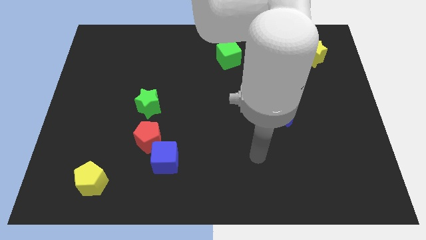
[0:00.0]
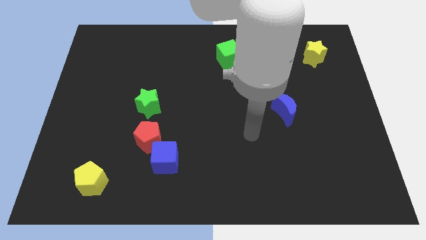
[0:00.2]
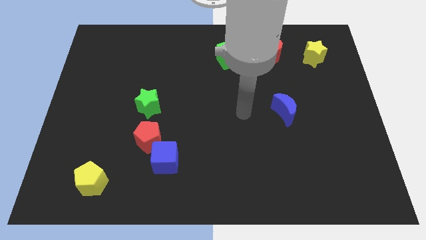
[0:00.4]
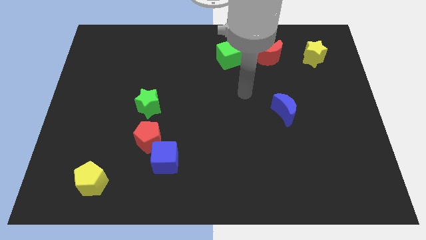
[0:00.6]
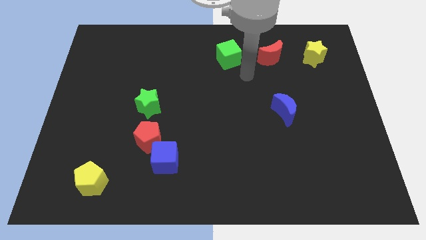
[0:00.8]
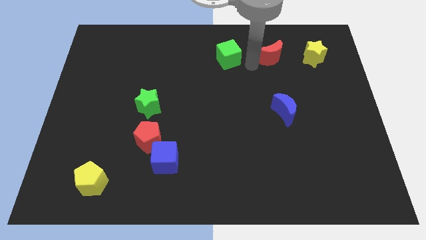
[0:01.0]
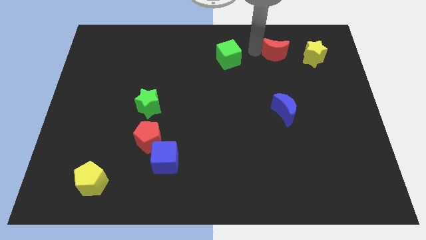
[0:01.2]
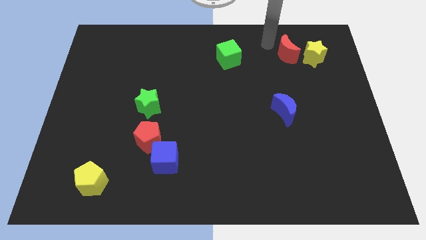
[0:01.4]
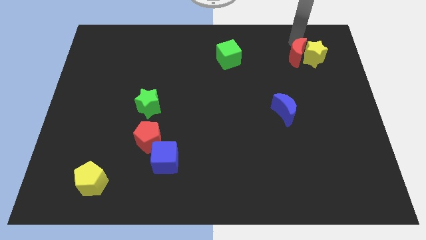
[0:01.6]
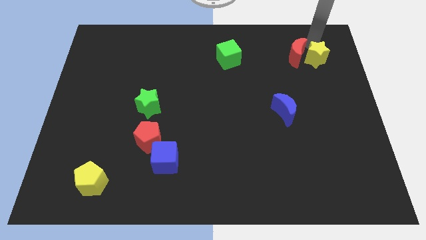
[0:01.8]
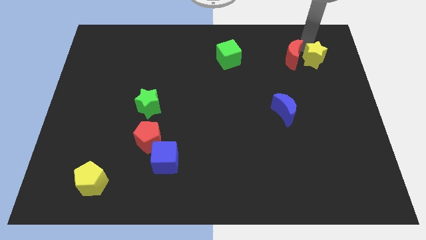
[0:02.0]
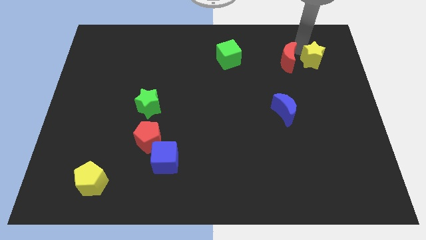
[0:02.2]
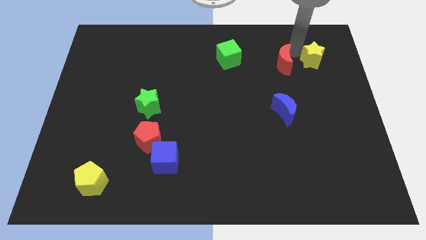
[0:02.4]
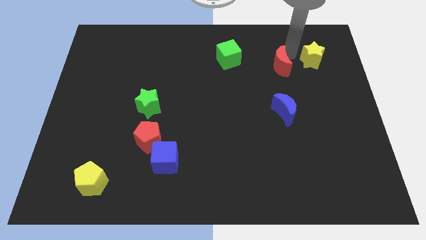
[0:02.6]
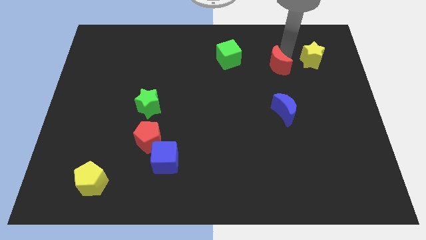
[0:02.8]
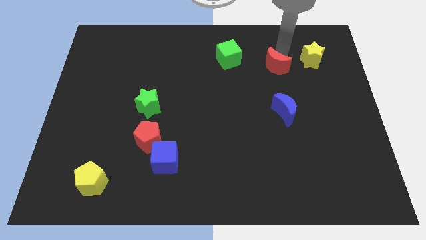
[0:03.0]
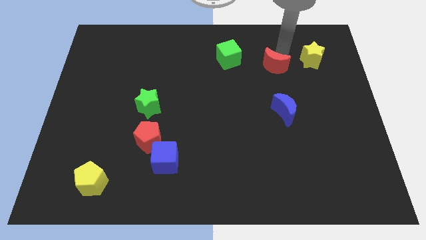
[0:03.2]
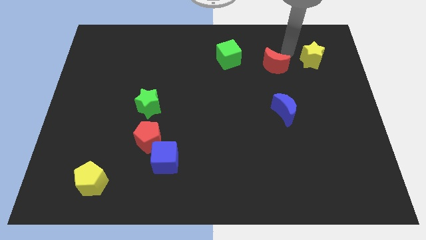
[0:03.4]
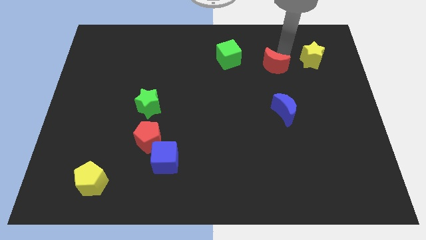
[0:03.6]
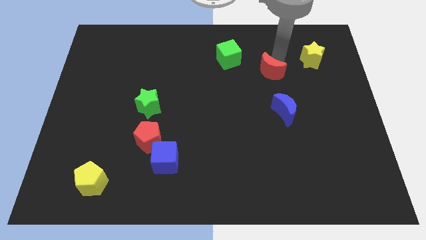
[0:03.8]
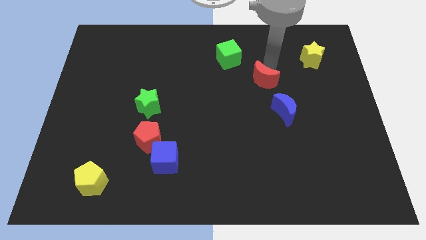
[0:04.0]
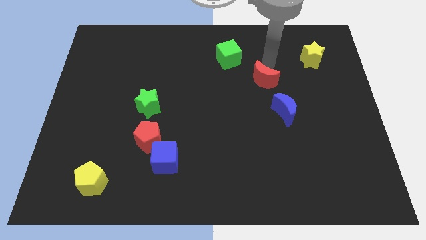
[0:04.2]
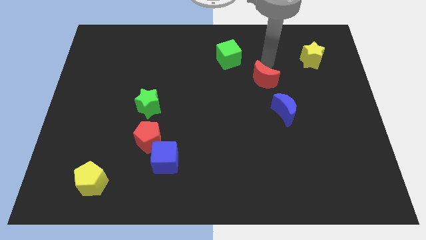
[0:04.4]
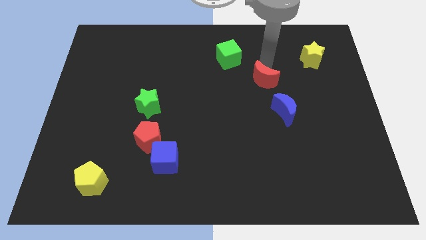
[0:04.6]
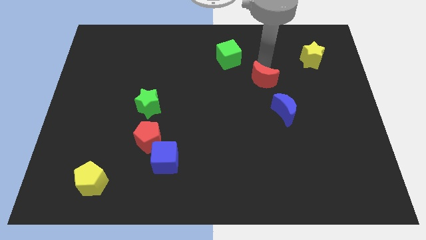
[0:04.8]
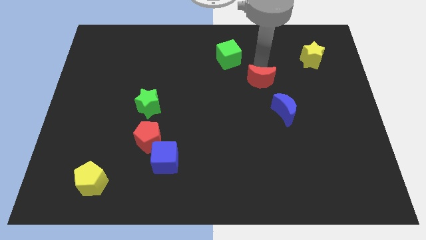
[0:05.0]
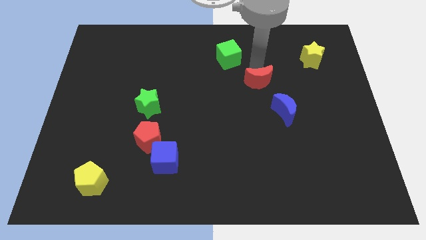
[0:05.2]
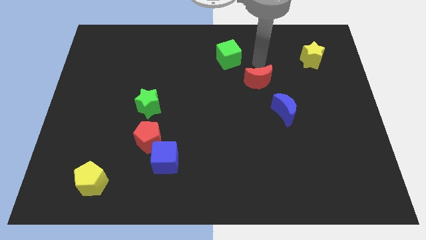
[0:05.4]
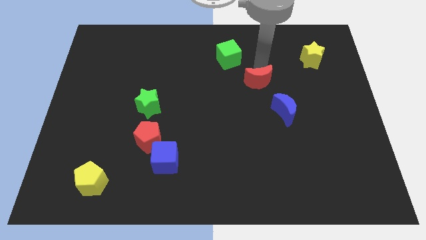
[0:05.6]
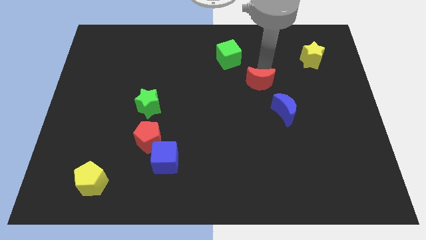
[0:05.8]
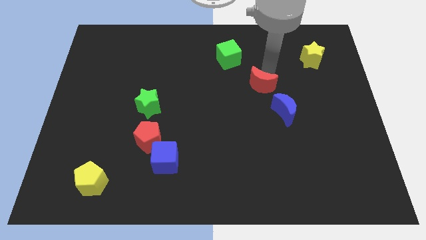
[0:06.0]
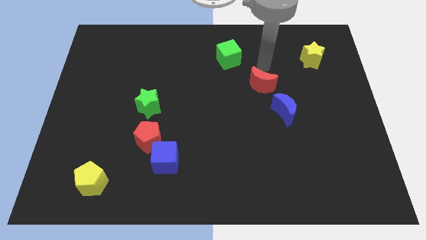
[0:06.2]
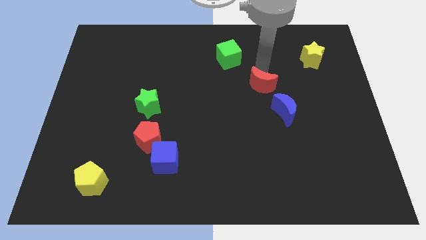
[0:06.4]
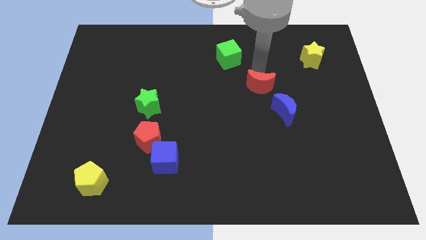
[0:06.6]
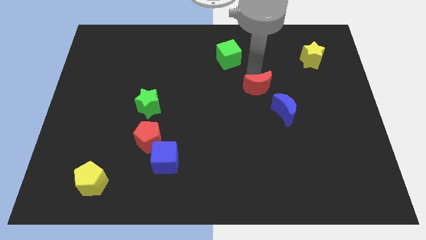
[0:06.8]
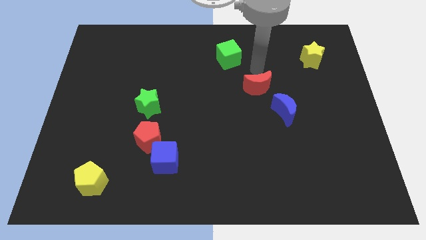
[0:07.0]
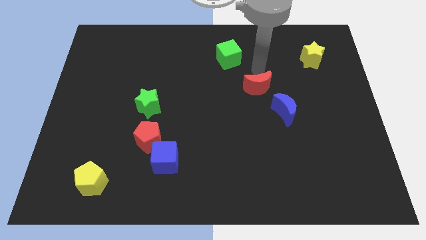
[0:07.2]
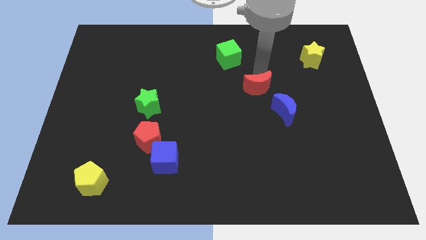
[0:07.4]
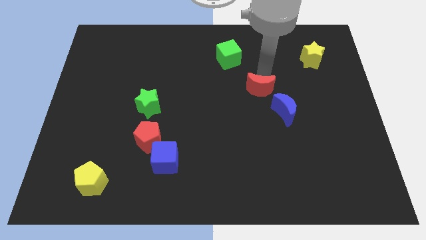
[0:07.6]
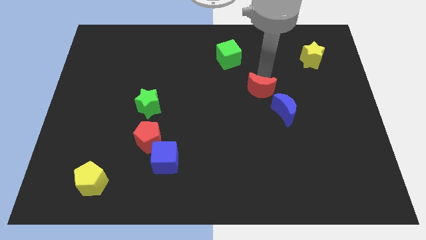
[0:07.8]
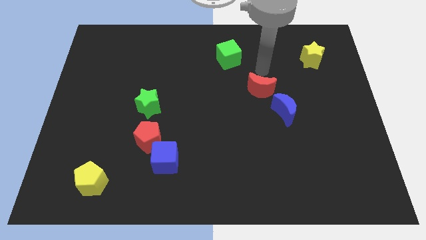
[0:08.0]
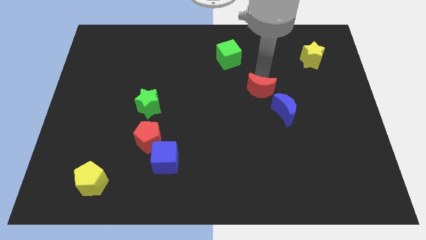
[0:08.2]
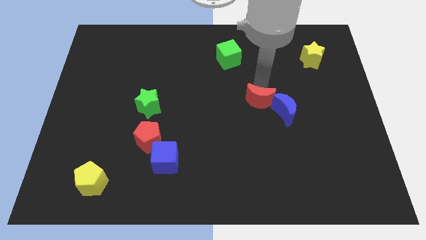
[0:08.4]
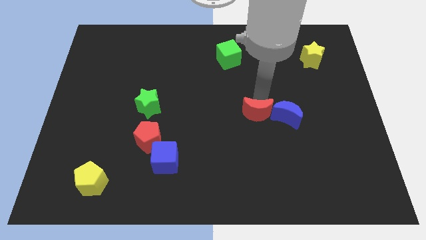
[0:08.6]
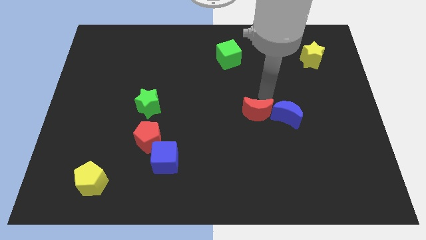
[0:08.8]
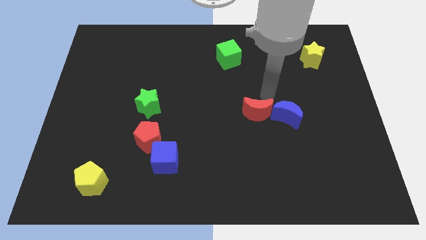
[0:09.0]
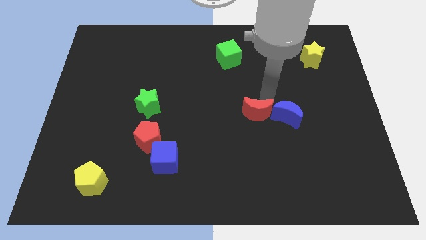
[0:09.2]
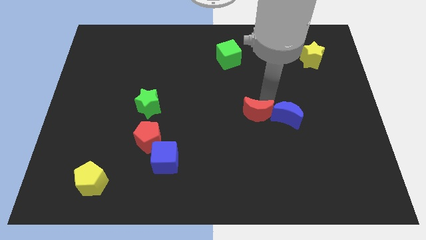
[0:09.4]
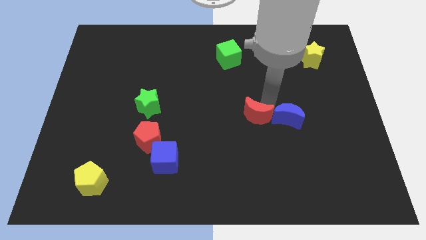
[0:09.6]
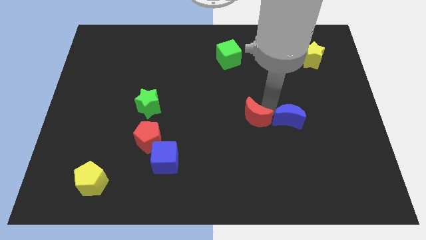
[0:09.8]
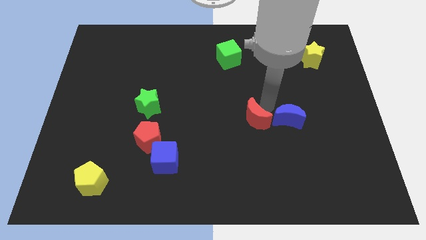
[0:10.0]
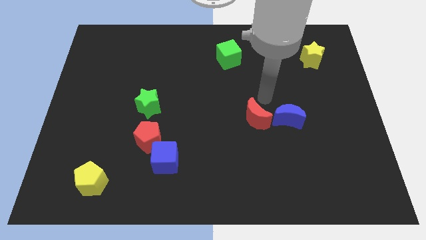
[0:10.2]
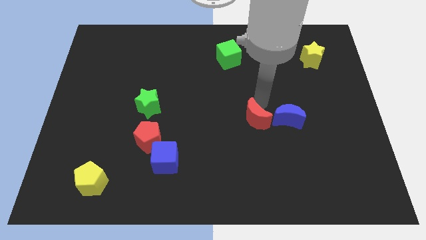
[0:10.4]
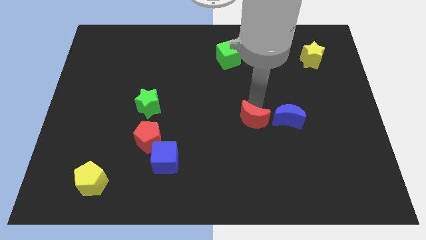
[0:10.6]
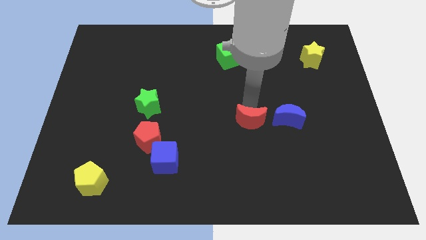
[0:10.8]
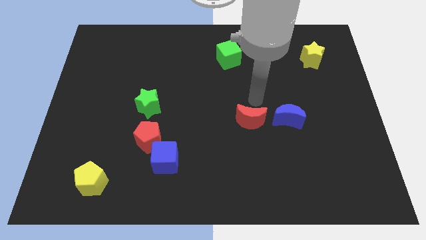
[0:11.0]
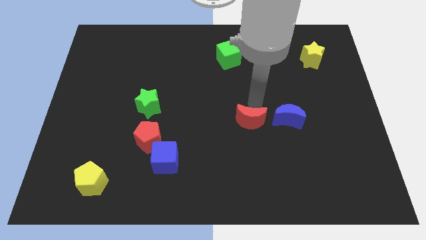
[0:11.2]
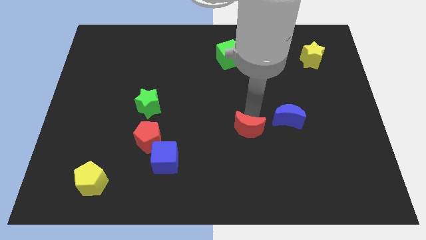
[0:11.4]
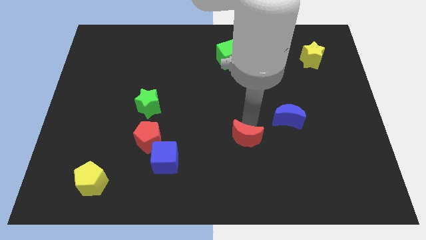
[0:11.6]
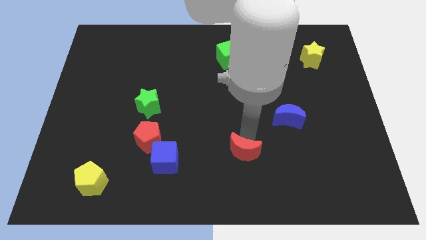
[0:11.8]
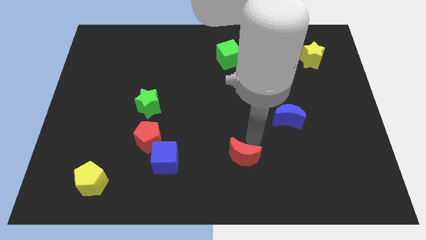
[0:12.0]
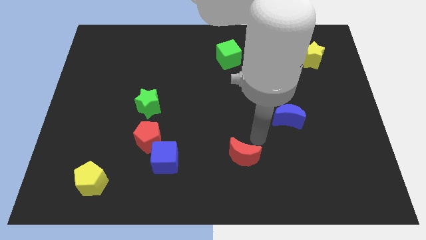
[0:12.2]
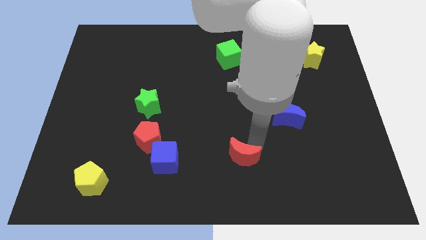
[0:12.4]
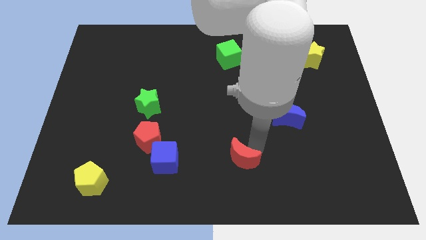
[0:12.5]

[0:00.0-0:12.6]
put the red moon to the bottom
